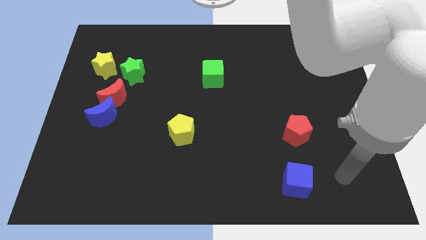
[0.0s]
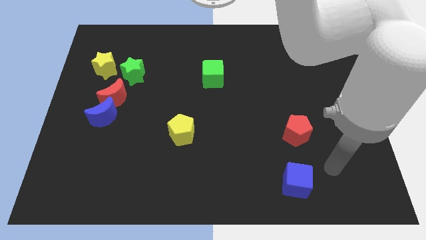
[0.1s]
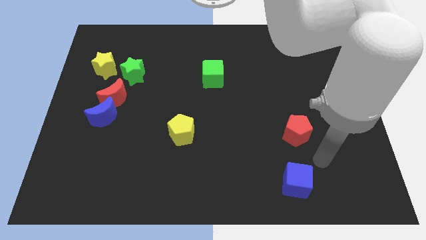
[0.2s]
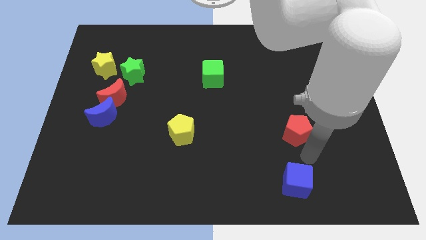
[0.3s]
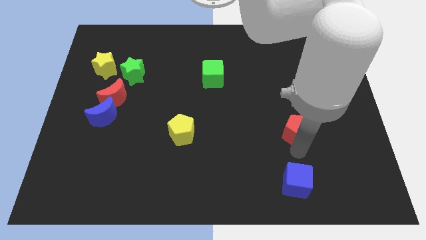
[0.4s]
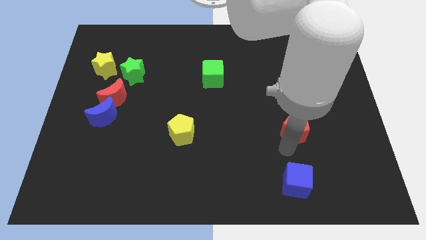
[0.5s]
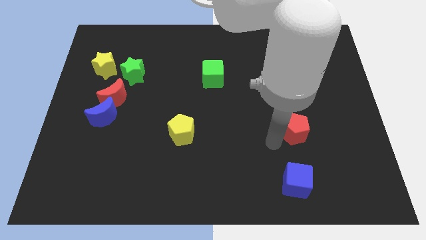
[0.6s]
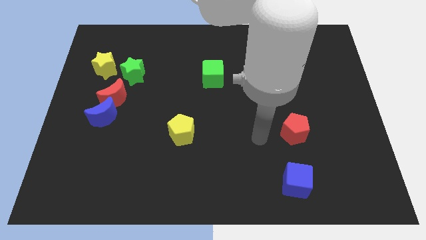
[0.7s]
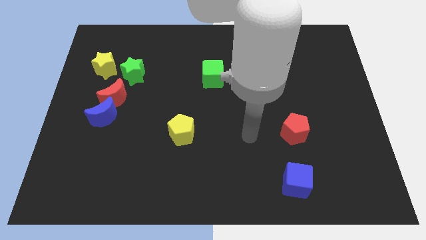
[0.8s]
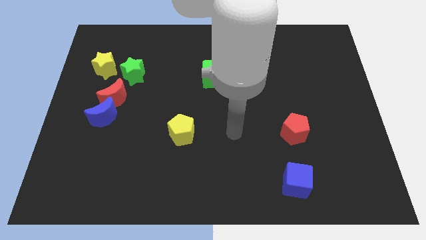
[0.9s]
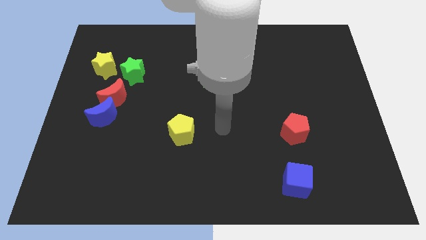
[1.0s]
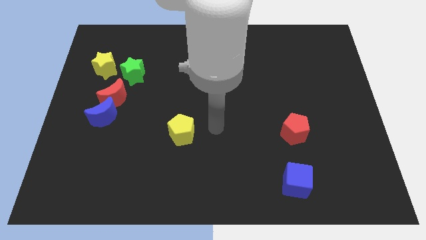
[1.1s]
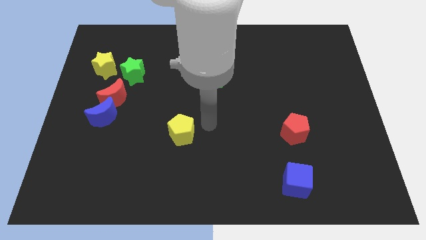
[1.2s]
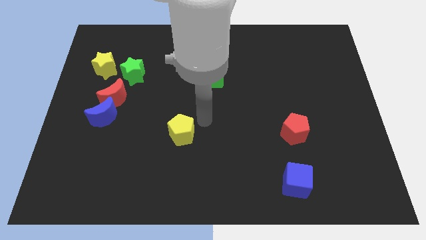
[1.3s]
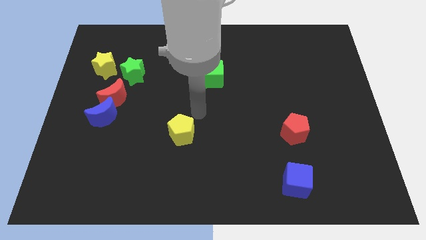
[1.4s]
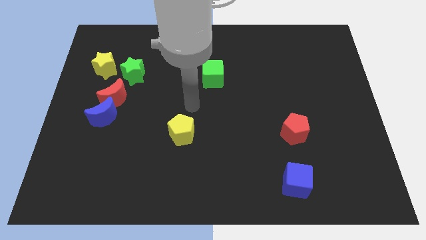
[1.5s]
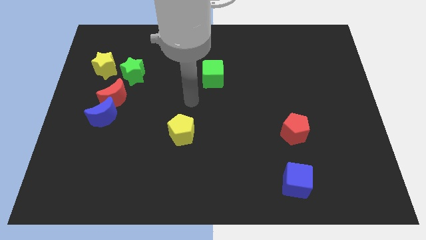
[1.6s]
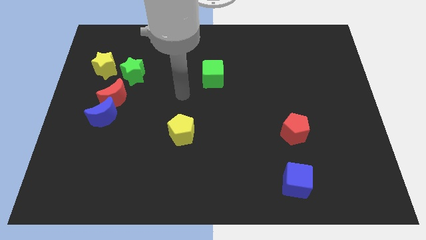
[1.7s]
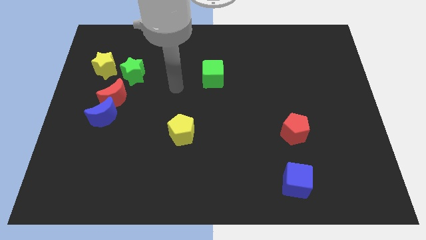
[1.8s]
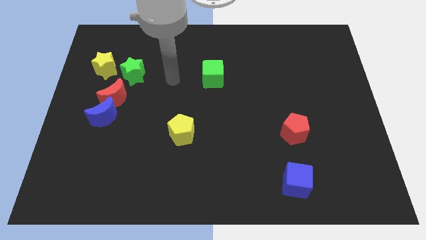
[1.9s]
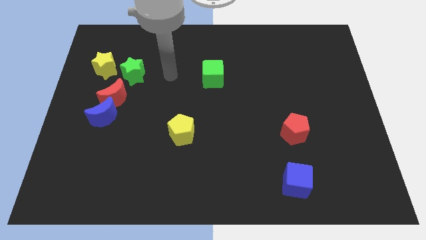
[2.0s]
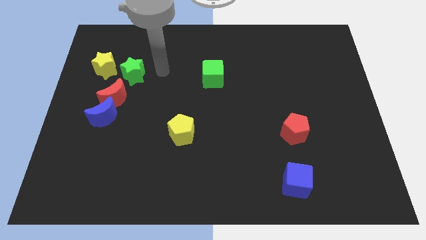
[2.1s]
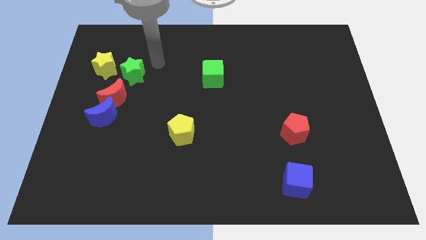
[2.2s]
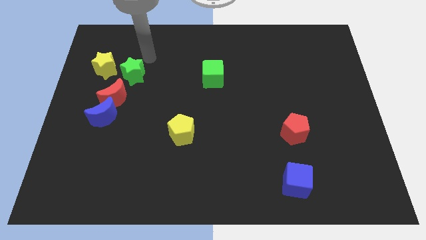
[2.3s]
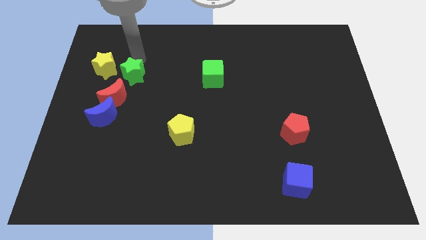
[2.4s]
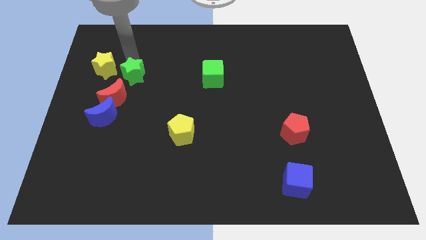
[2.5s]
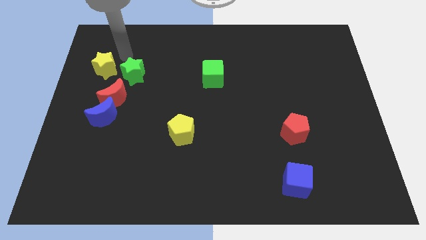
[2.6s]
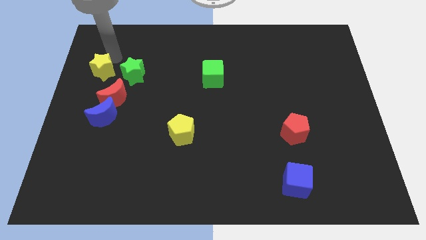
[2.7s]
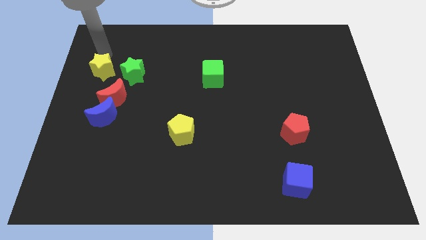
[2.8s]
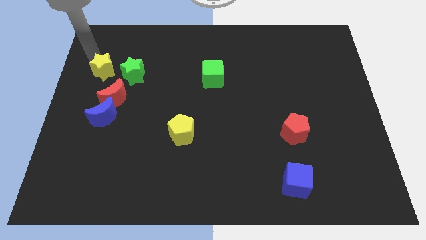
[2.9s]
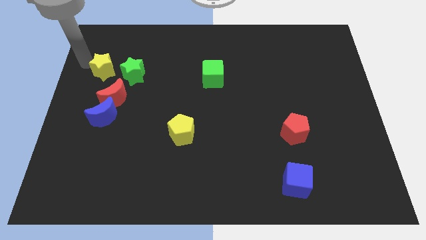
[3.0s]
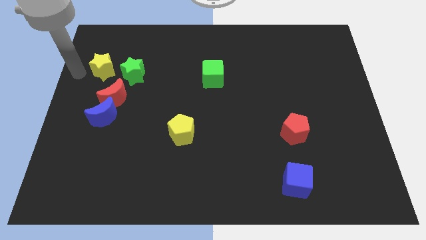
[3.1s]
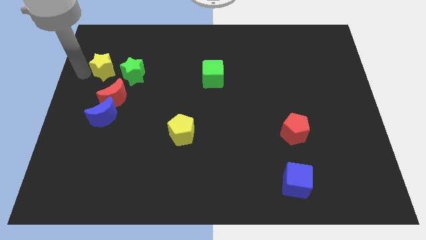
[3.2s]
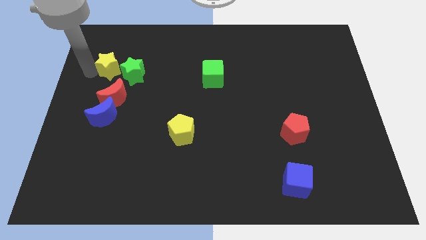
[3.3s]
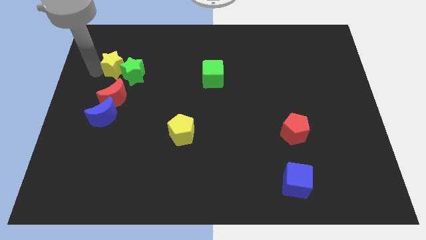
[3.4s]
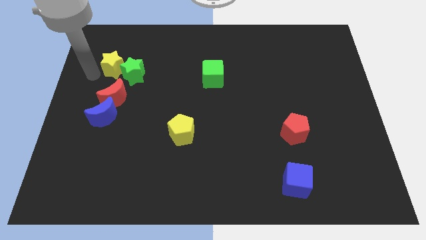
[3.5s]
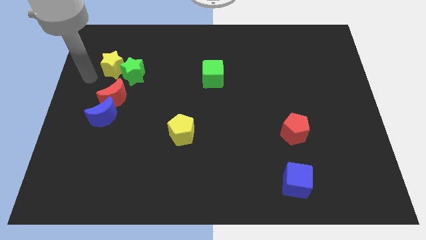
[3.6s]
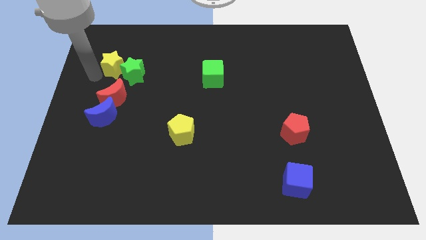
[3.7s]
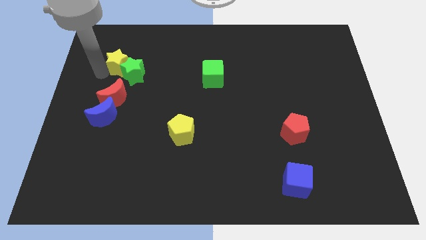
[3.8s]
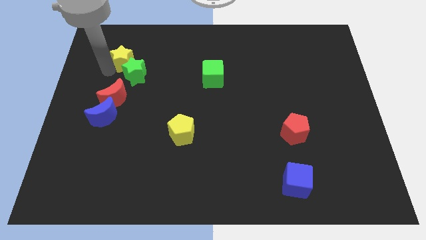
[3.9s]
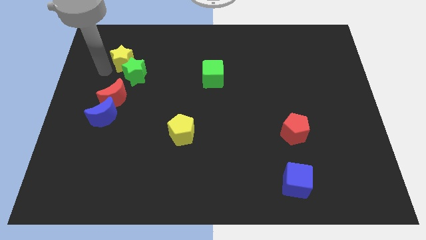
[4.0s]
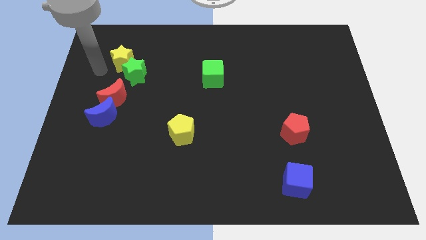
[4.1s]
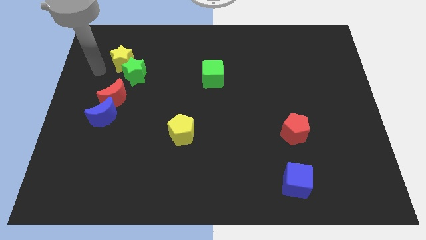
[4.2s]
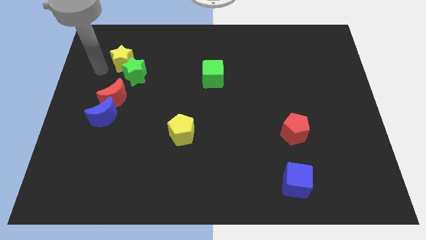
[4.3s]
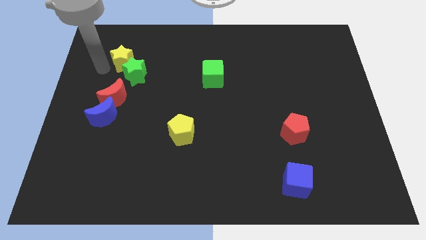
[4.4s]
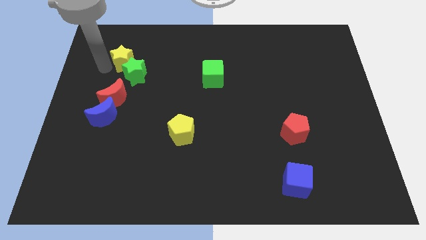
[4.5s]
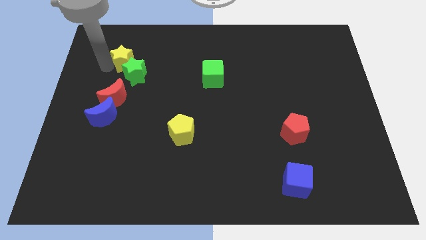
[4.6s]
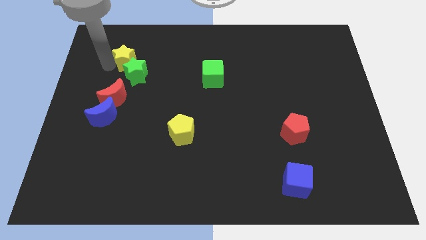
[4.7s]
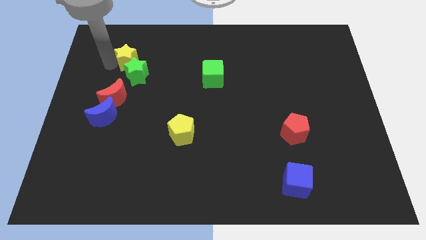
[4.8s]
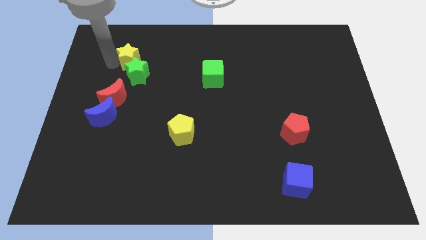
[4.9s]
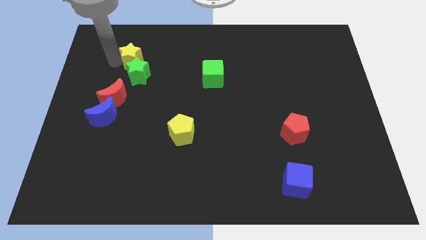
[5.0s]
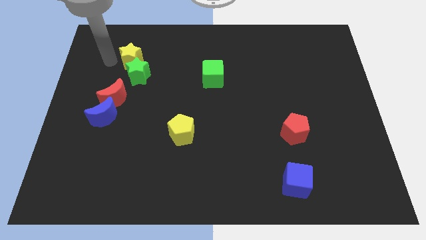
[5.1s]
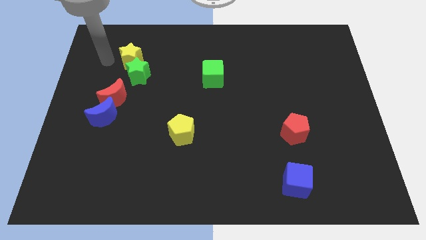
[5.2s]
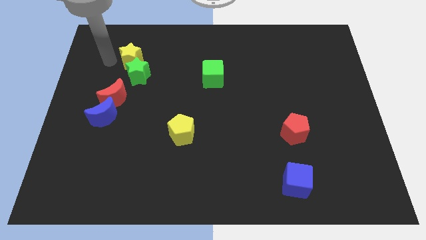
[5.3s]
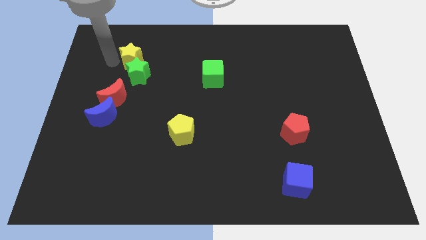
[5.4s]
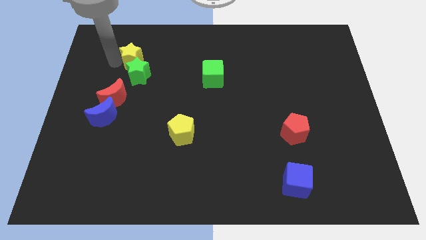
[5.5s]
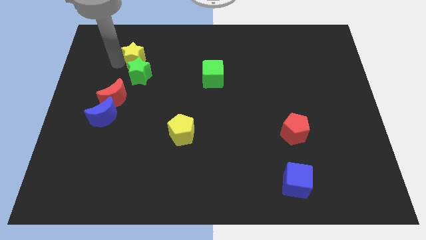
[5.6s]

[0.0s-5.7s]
slide the yellow star to the right somewhat

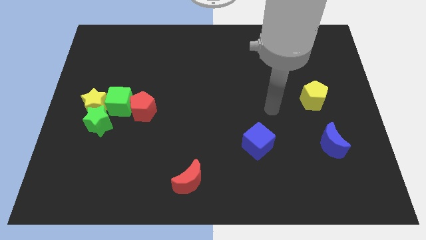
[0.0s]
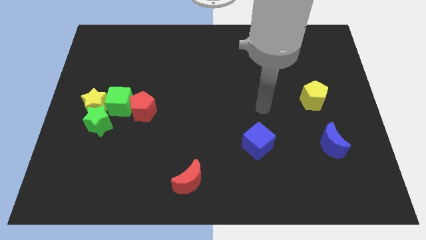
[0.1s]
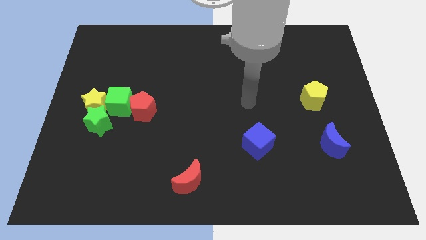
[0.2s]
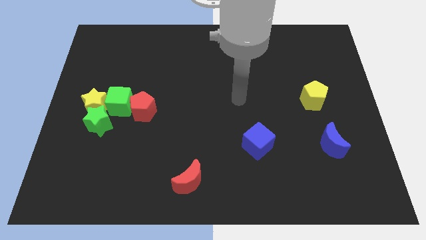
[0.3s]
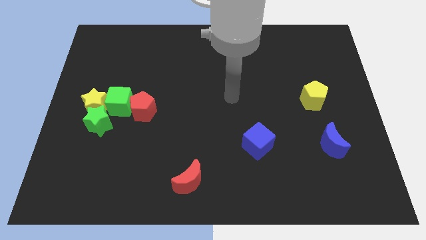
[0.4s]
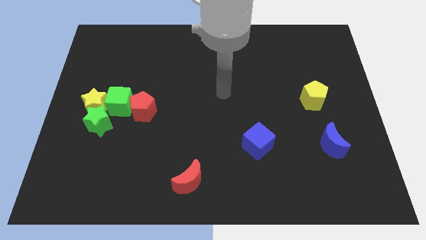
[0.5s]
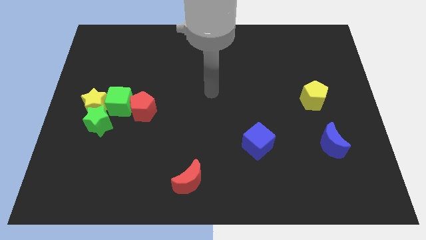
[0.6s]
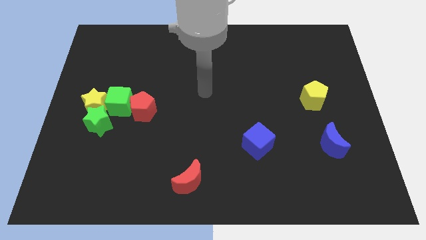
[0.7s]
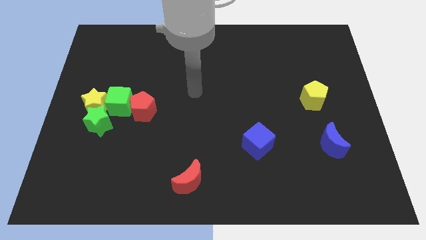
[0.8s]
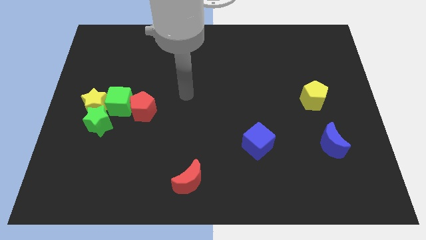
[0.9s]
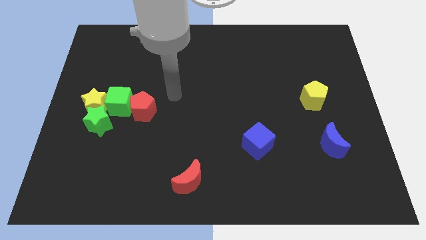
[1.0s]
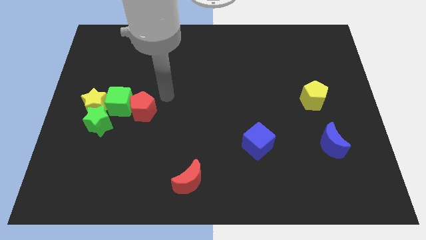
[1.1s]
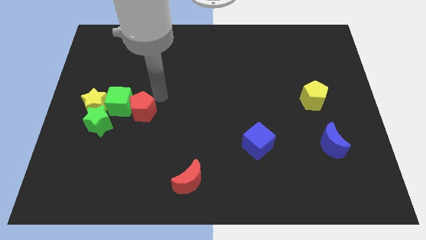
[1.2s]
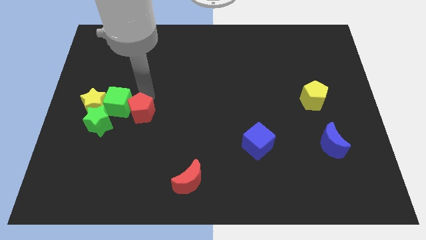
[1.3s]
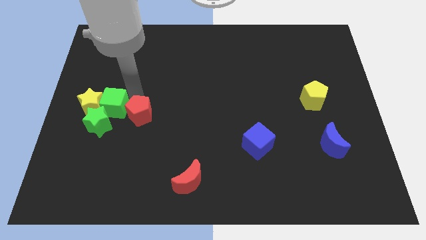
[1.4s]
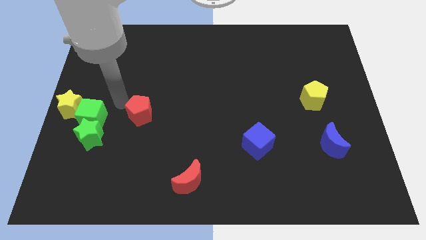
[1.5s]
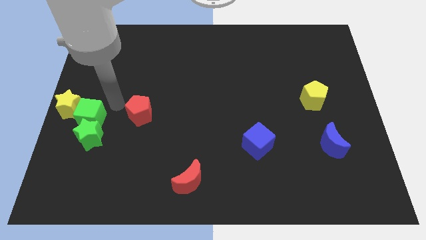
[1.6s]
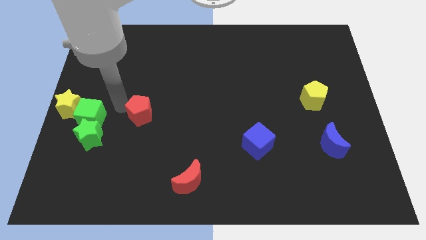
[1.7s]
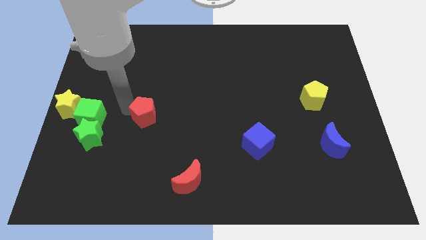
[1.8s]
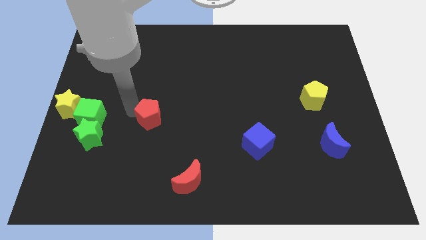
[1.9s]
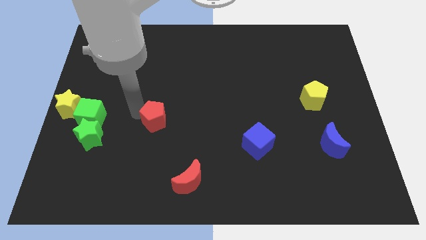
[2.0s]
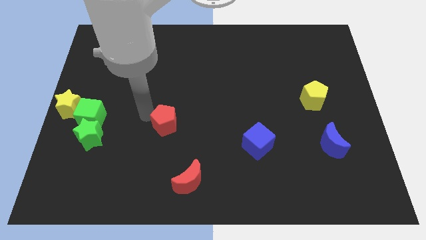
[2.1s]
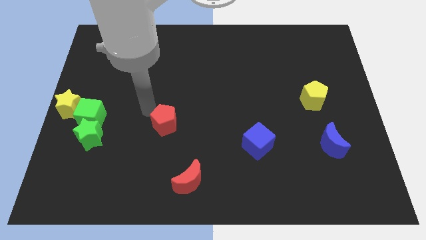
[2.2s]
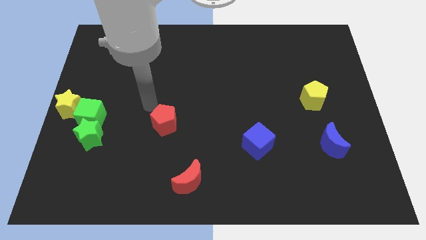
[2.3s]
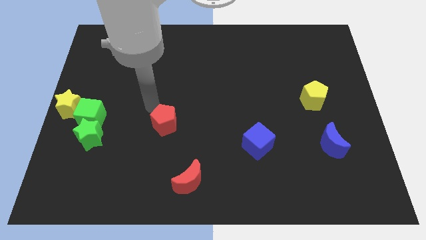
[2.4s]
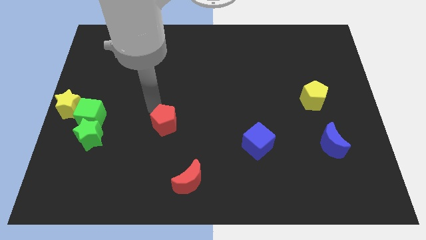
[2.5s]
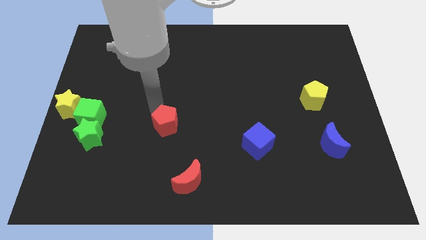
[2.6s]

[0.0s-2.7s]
slightly move the red pentagon downwards and then right
